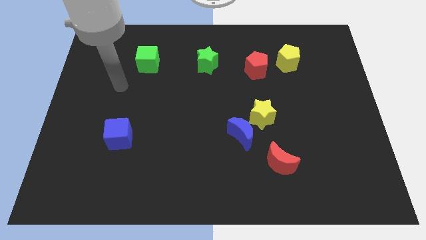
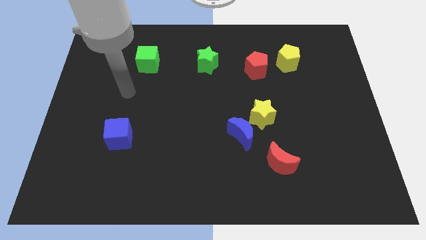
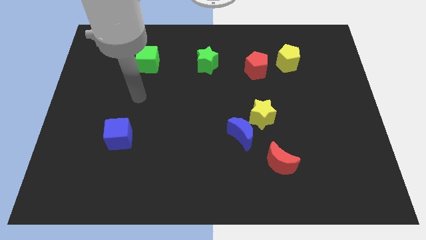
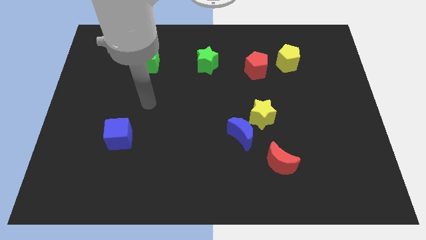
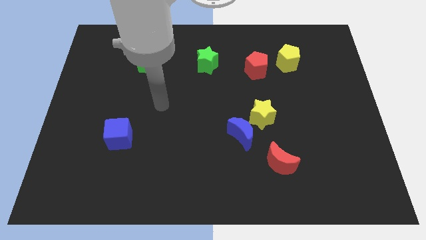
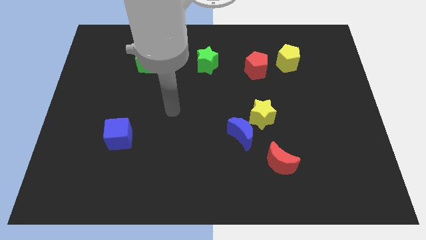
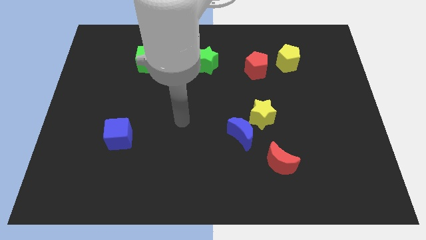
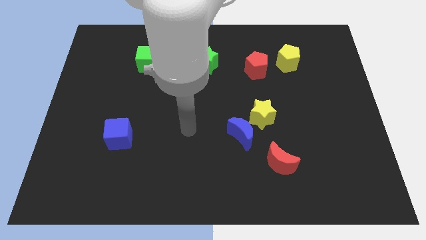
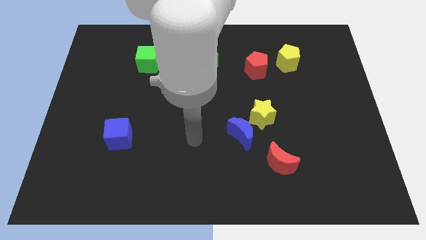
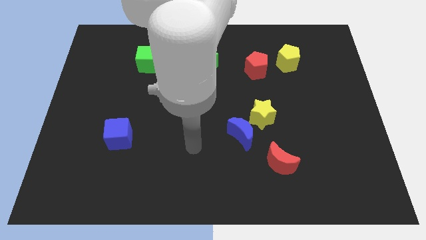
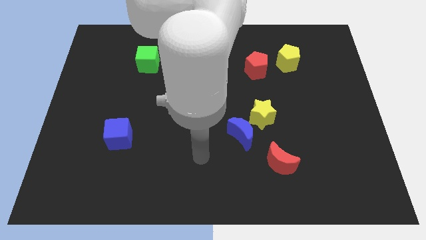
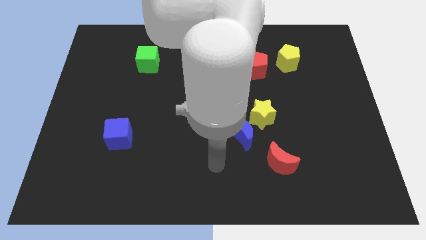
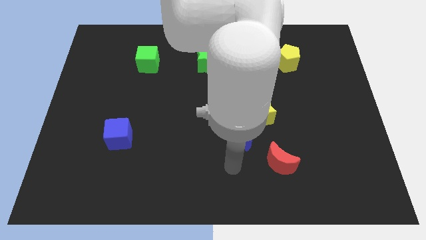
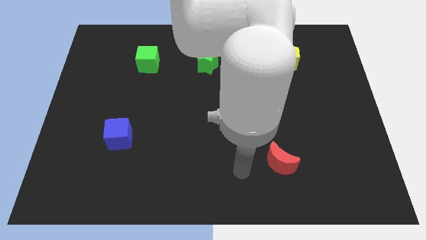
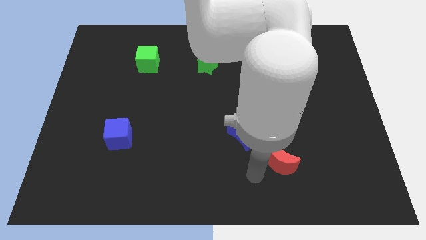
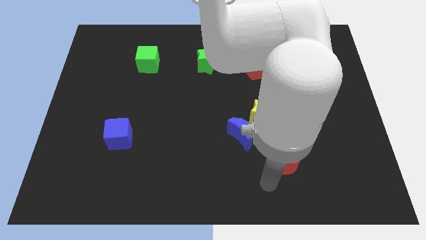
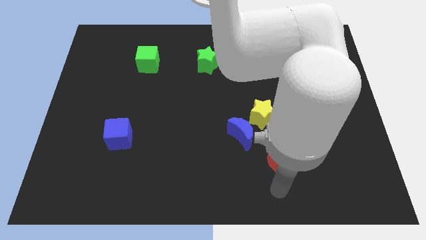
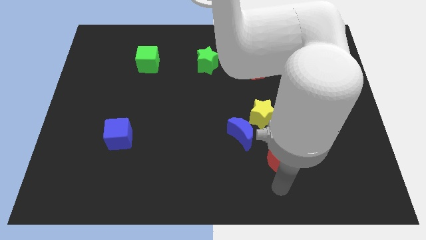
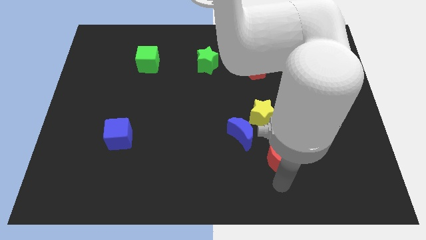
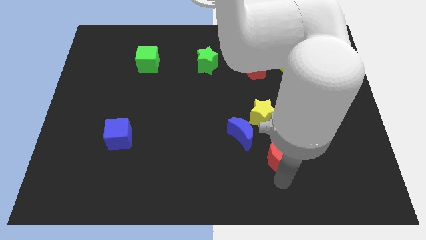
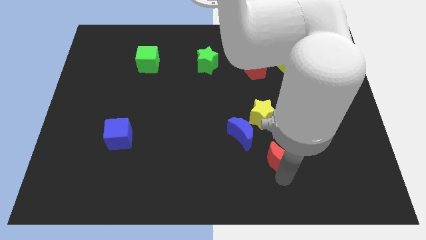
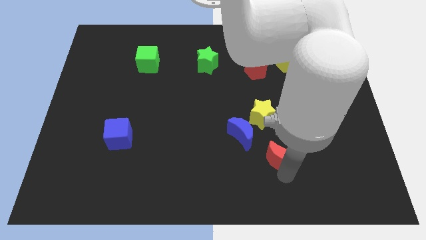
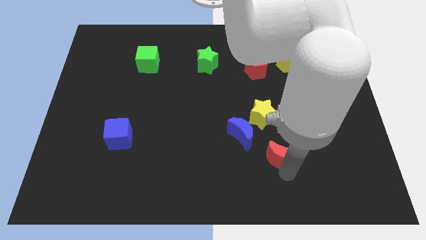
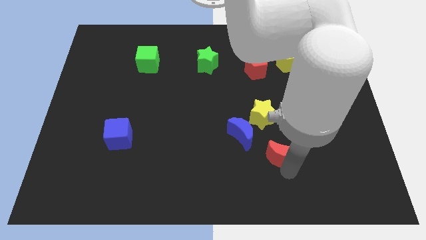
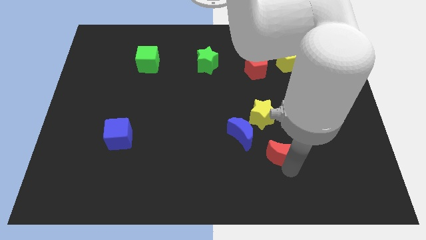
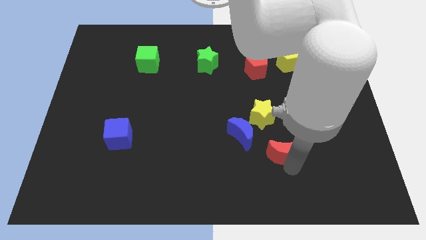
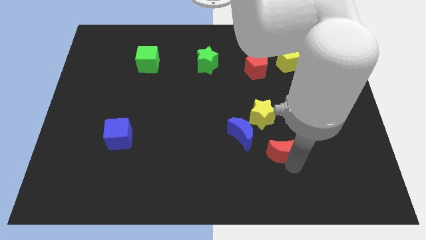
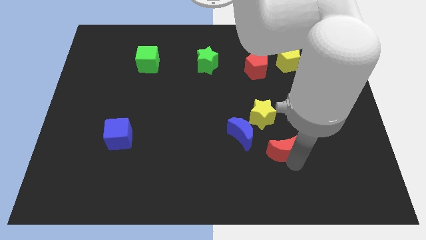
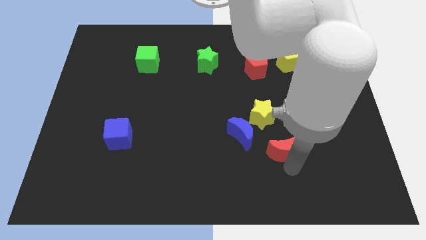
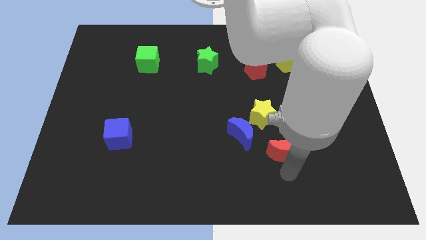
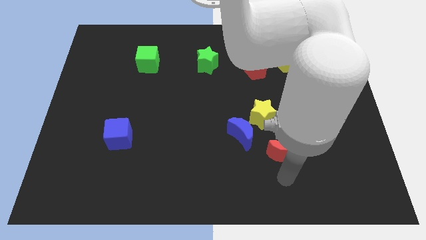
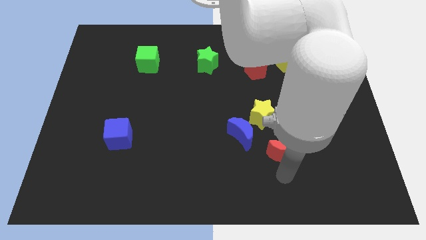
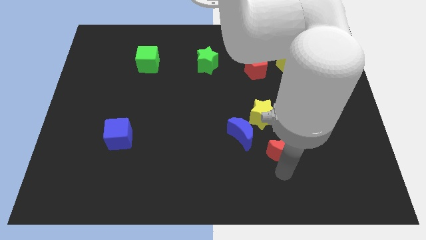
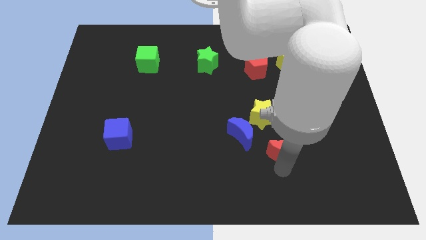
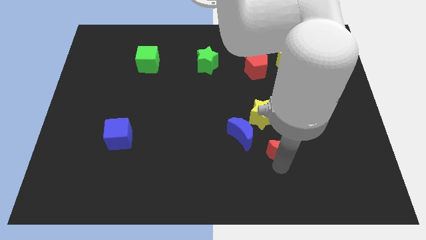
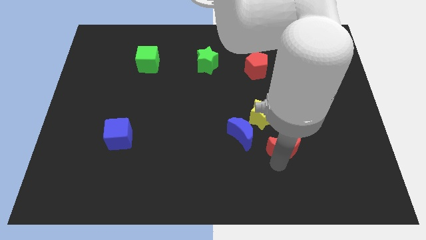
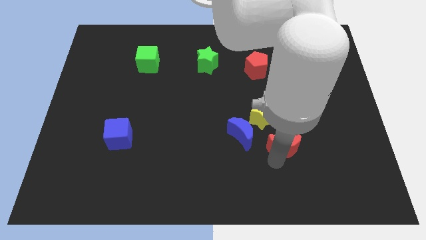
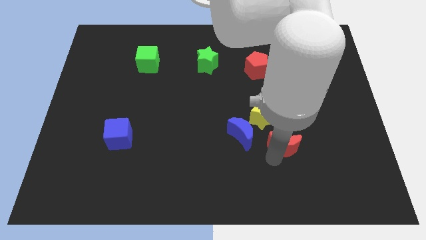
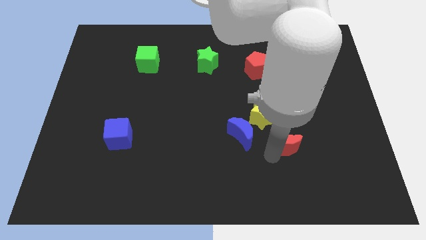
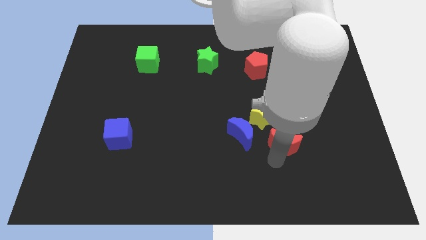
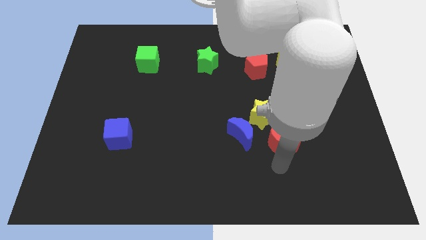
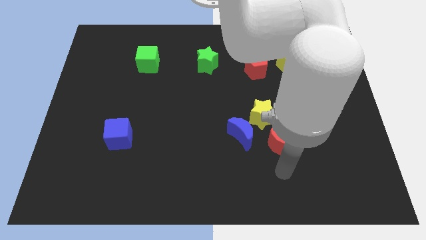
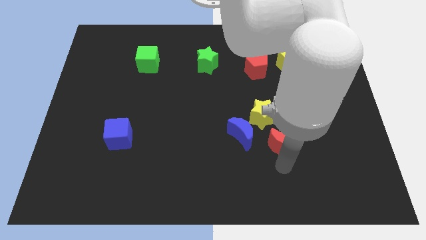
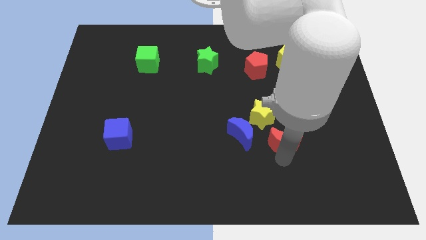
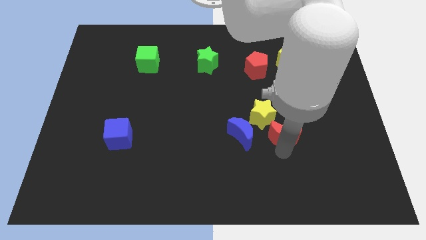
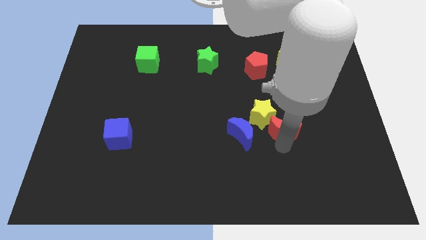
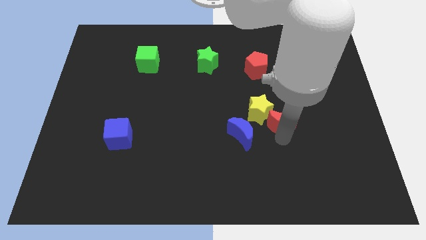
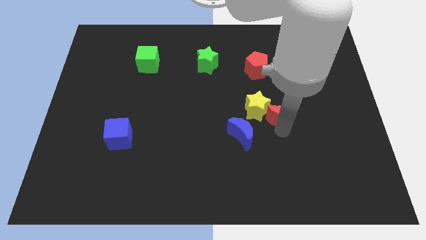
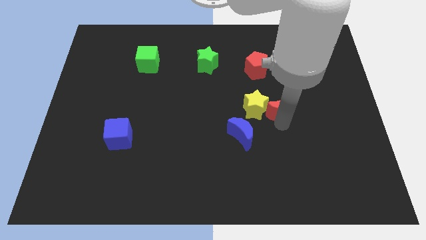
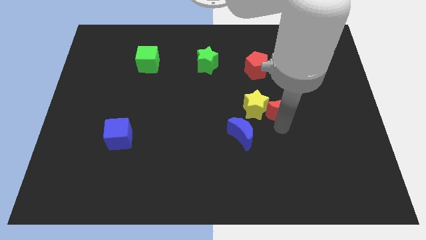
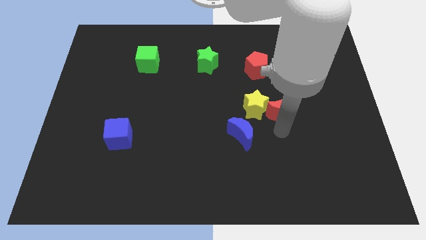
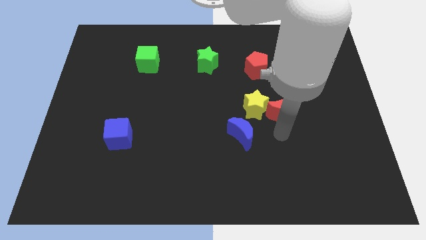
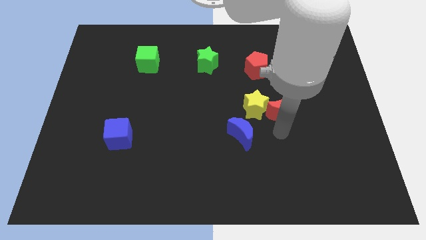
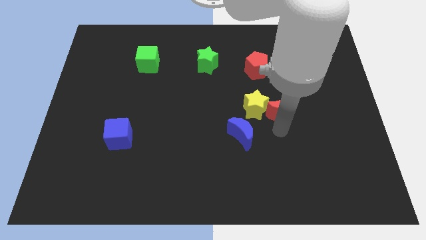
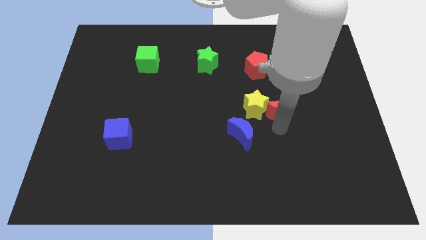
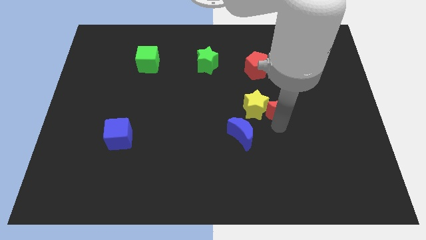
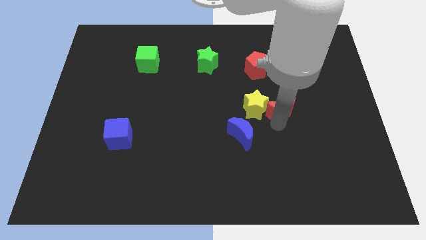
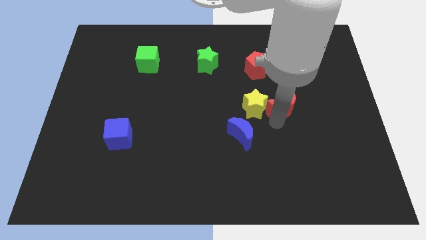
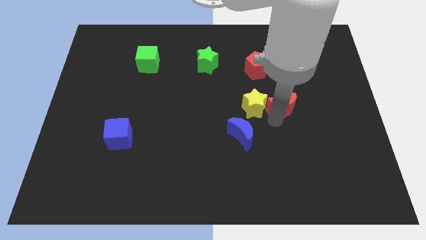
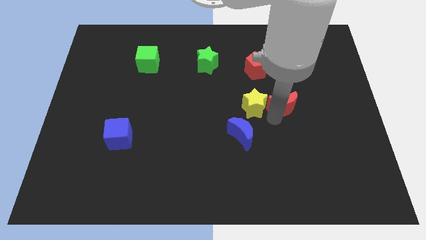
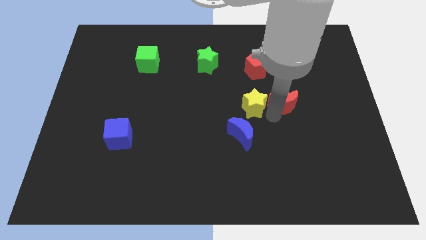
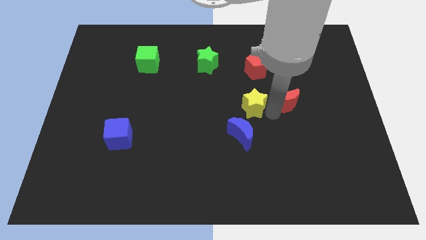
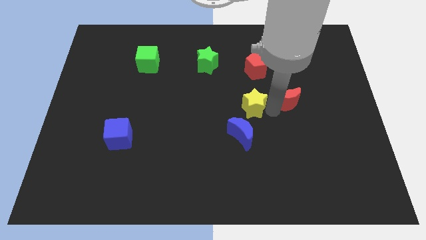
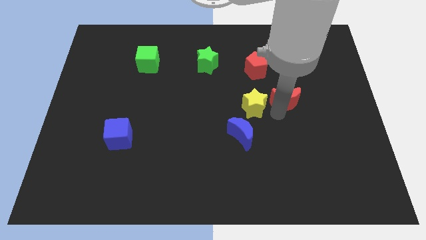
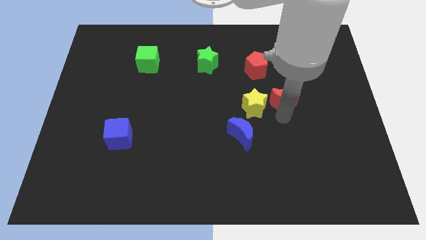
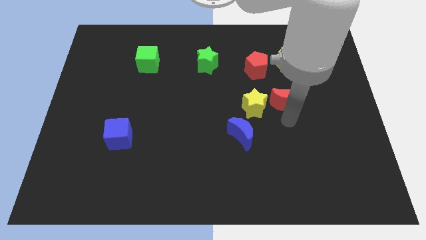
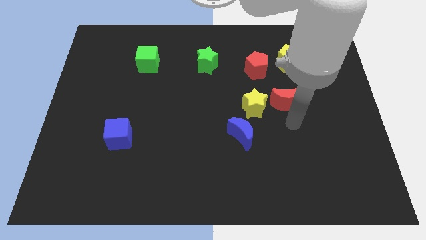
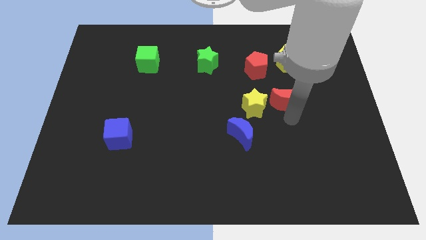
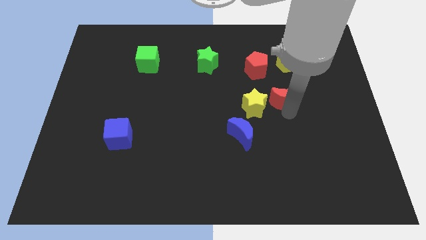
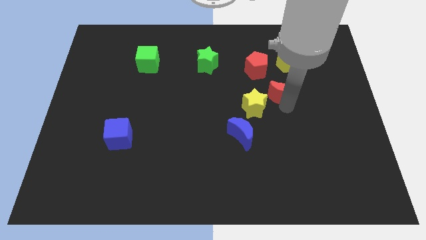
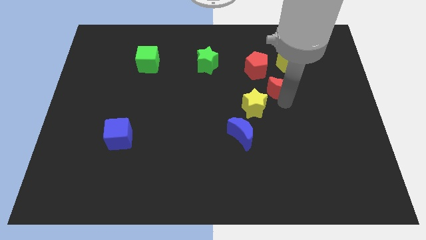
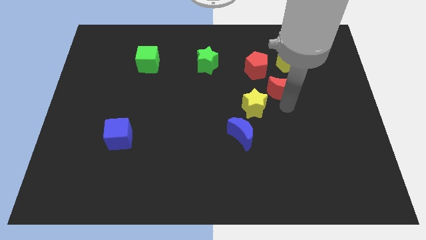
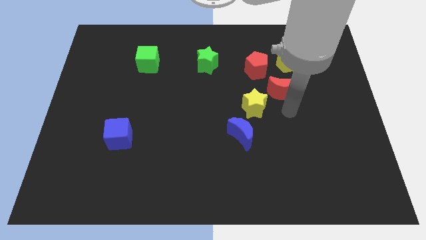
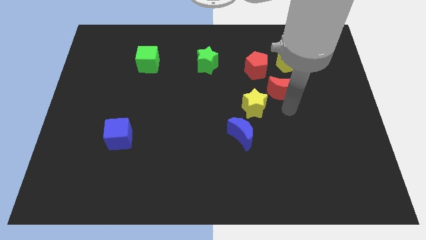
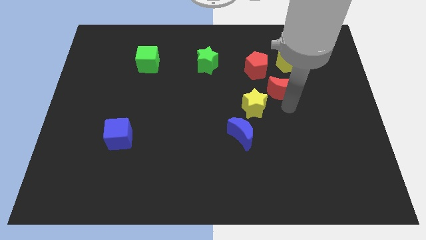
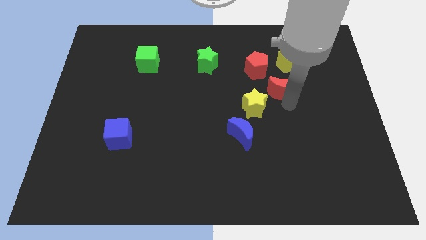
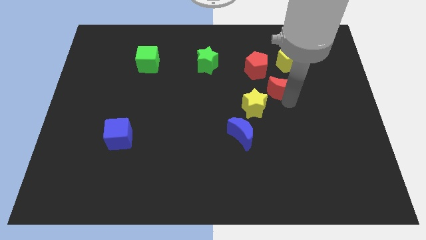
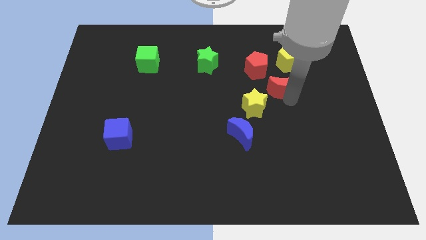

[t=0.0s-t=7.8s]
push the red moon up

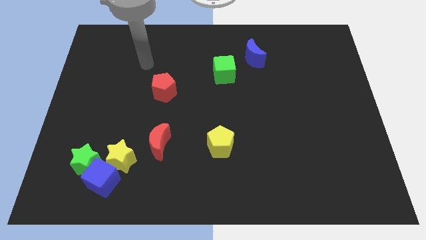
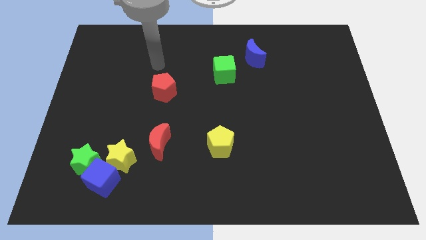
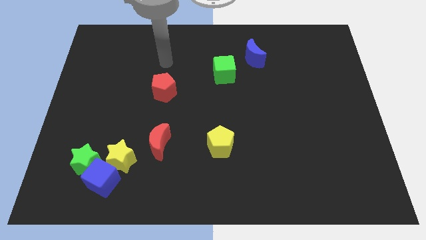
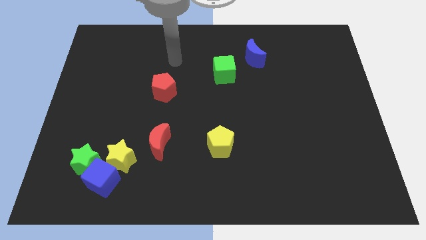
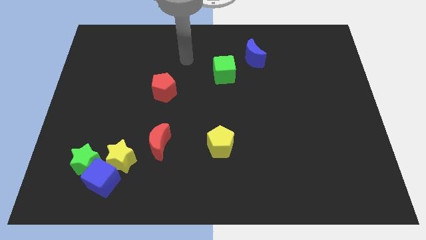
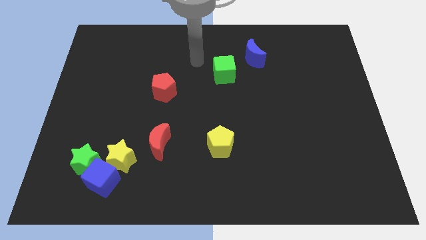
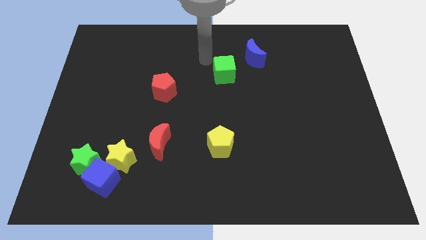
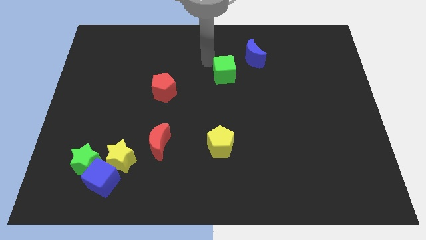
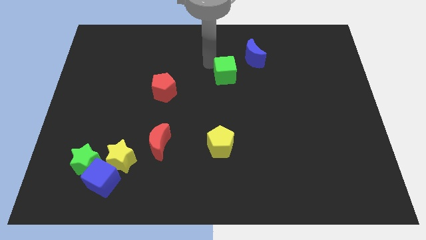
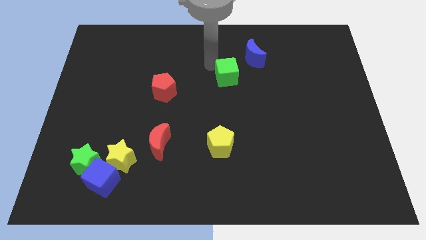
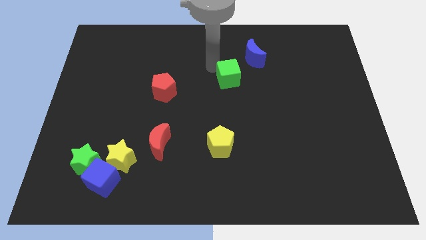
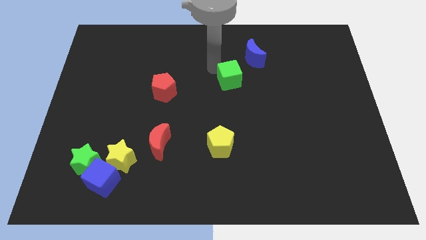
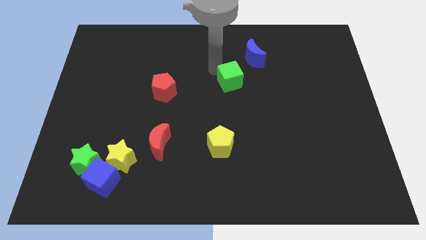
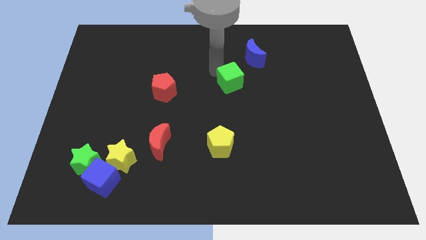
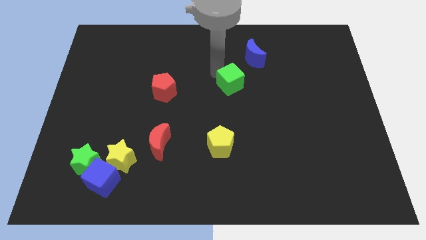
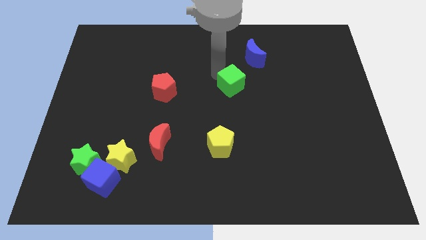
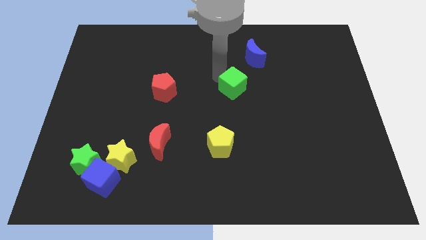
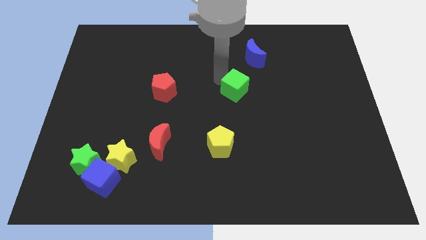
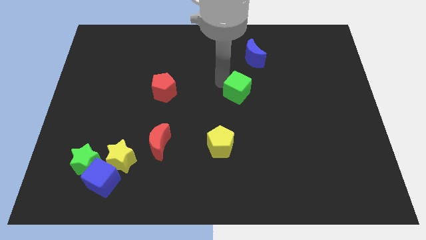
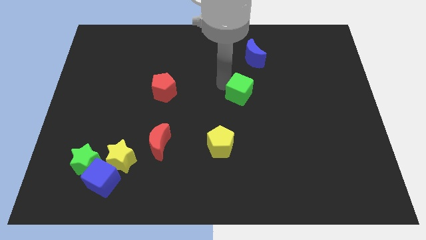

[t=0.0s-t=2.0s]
slide the green cube slightly downwards and to the right
